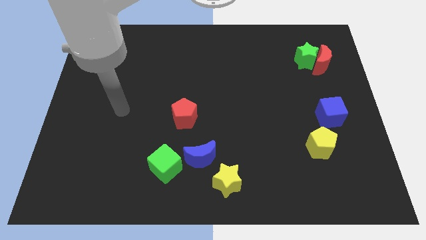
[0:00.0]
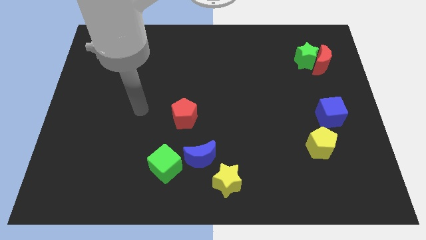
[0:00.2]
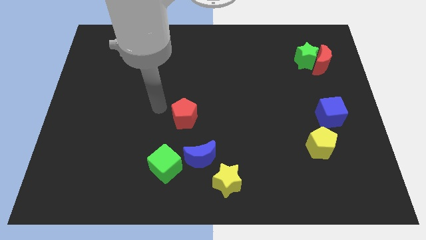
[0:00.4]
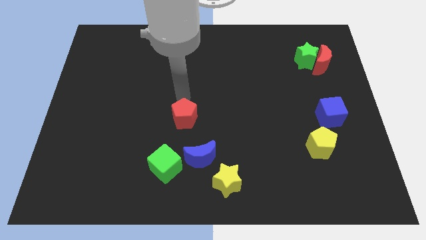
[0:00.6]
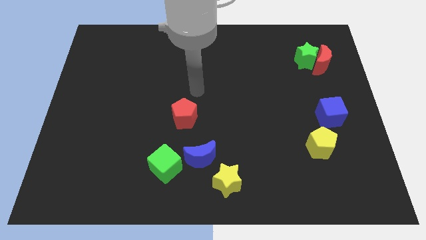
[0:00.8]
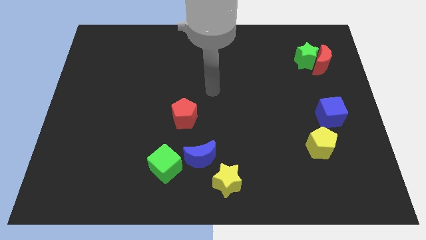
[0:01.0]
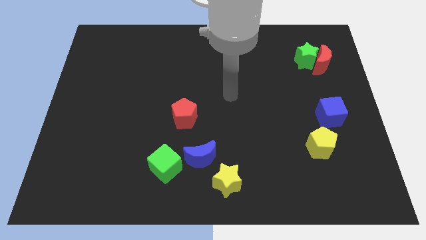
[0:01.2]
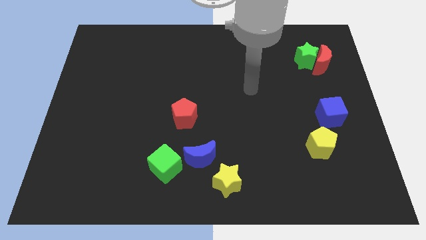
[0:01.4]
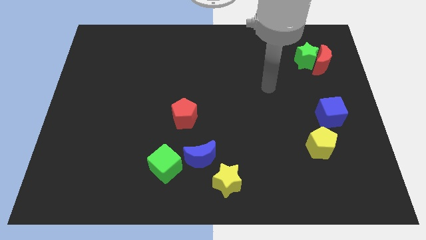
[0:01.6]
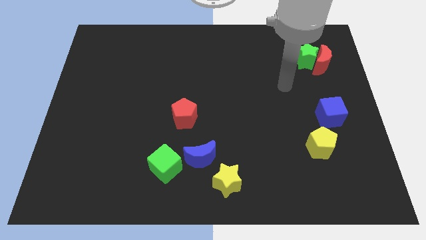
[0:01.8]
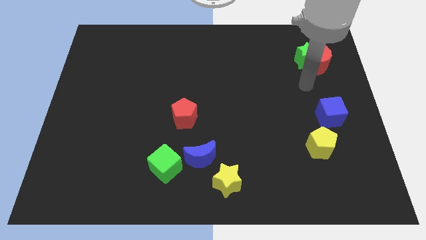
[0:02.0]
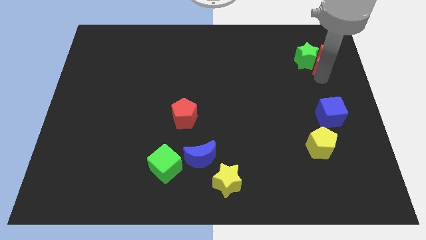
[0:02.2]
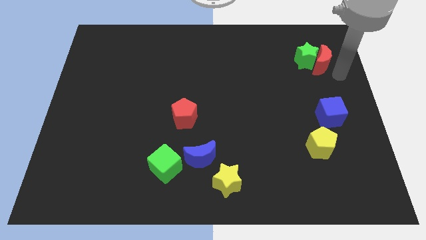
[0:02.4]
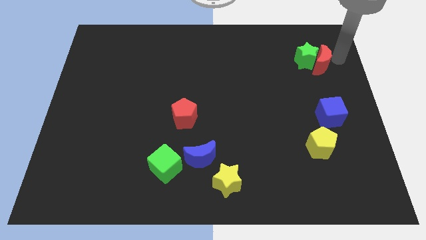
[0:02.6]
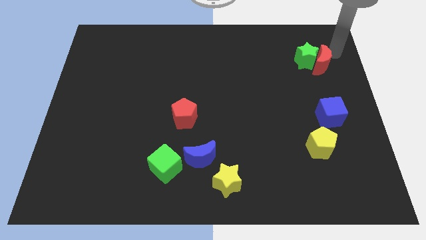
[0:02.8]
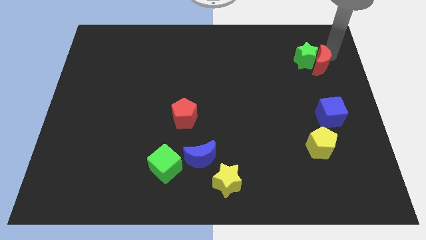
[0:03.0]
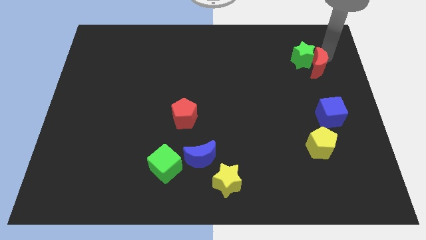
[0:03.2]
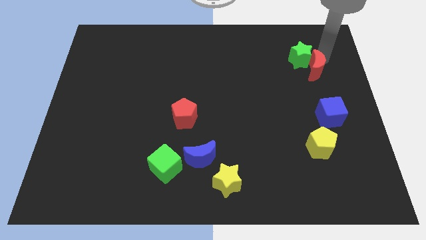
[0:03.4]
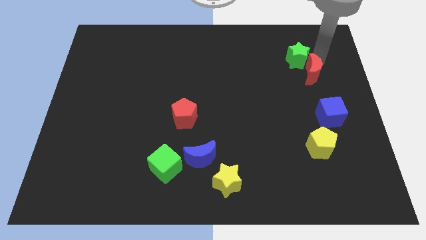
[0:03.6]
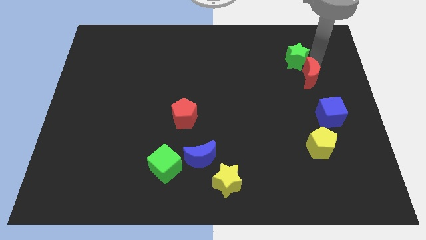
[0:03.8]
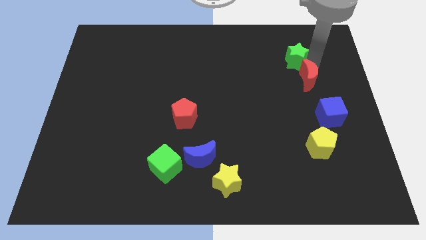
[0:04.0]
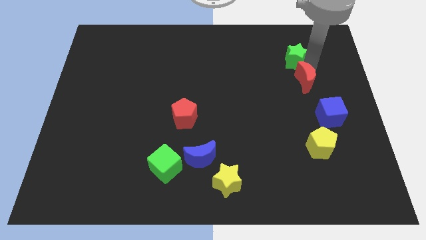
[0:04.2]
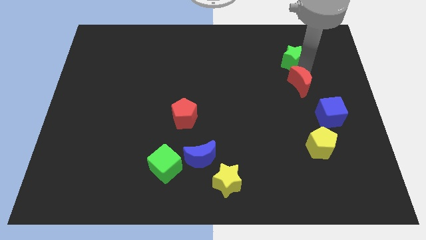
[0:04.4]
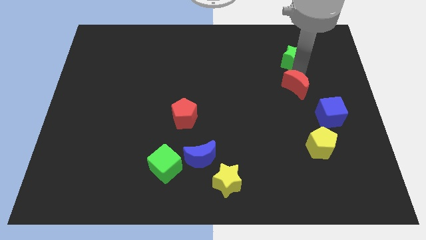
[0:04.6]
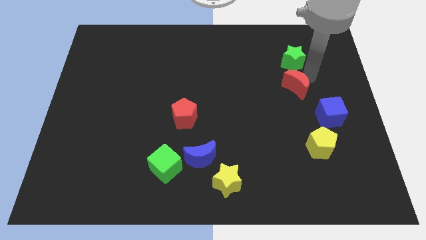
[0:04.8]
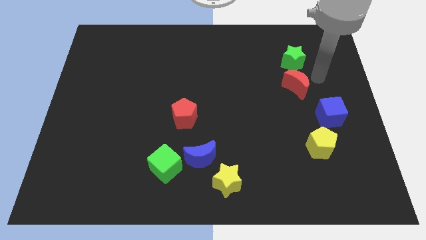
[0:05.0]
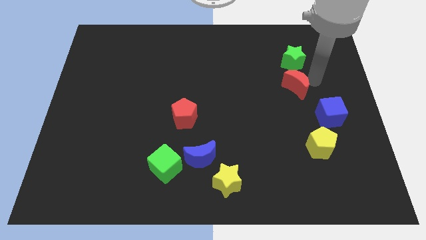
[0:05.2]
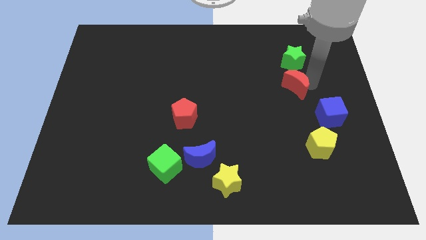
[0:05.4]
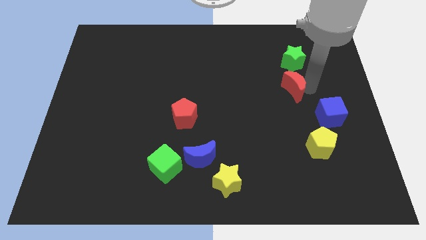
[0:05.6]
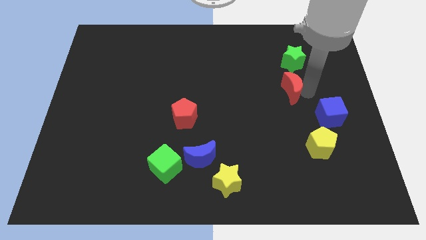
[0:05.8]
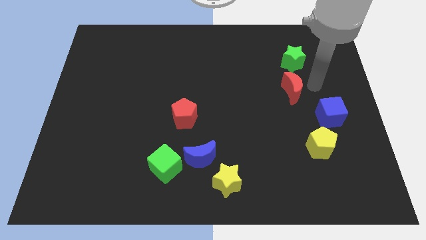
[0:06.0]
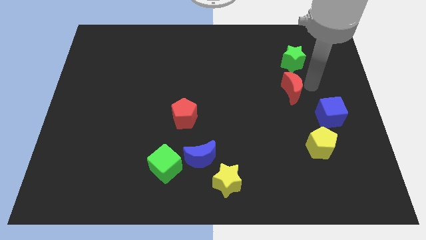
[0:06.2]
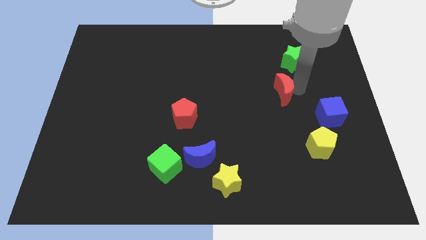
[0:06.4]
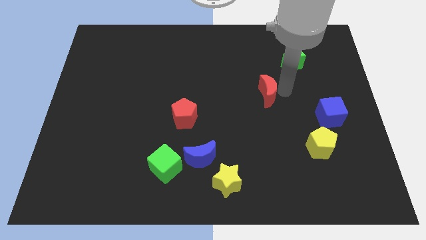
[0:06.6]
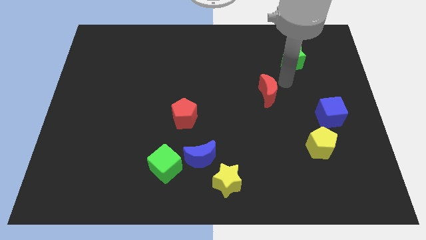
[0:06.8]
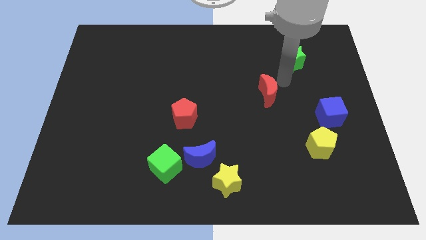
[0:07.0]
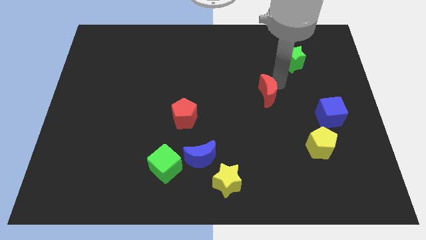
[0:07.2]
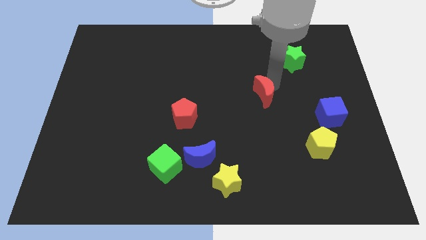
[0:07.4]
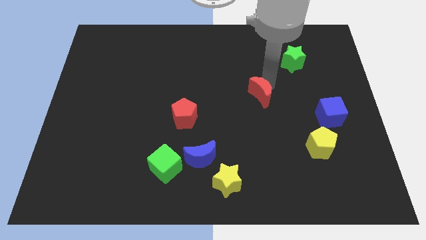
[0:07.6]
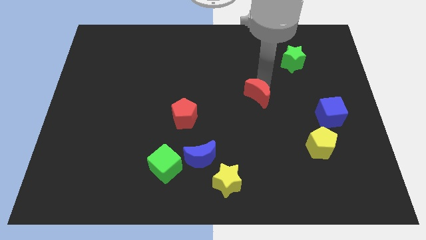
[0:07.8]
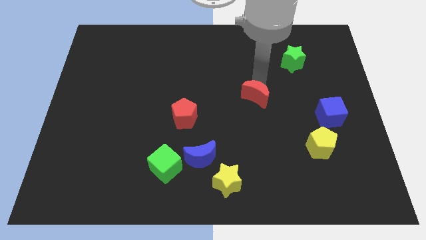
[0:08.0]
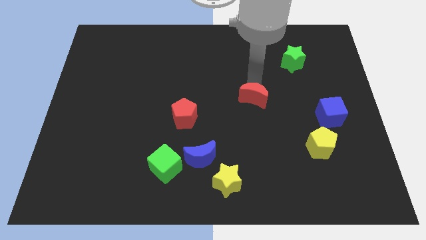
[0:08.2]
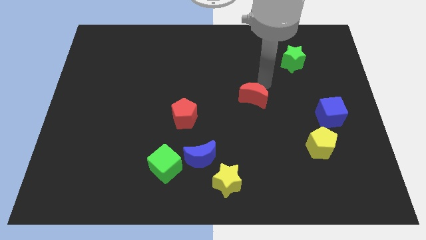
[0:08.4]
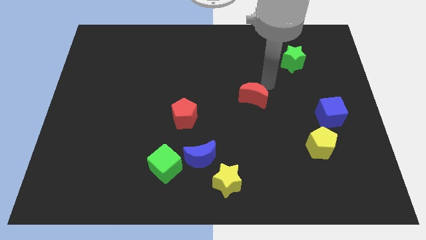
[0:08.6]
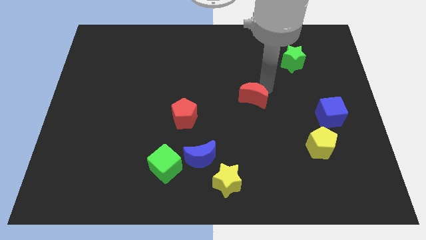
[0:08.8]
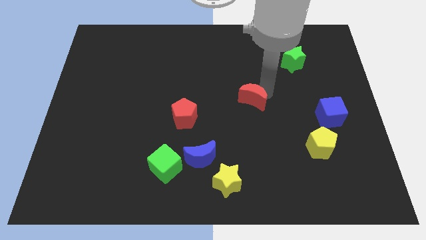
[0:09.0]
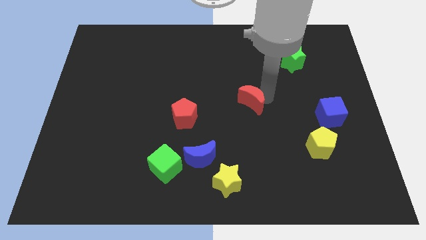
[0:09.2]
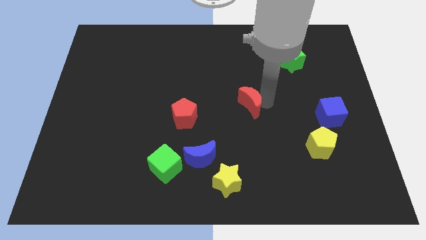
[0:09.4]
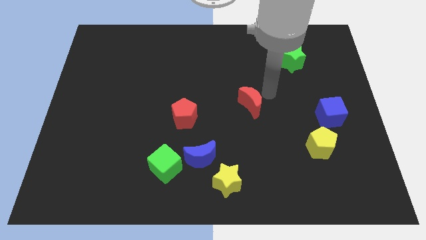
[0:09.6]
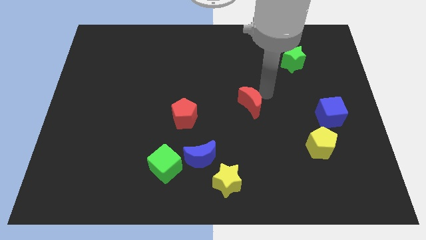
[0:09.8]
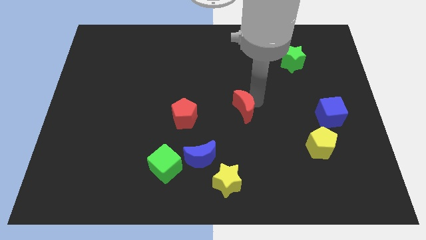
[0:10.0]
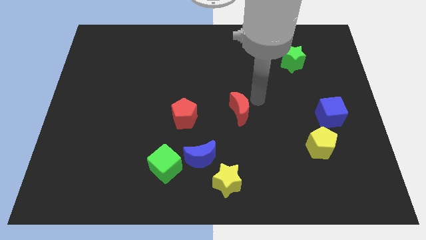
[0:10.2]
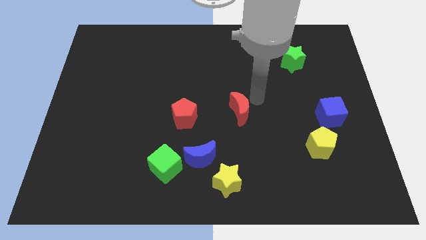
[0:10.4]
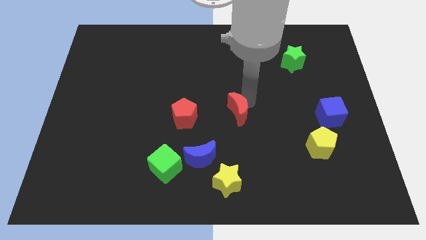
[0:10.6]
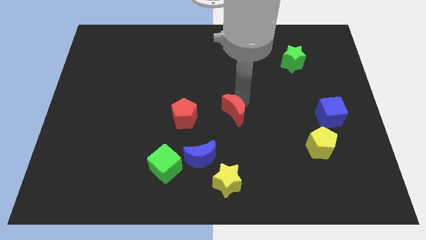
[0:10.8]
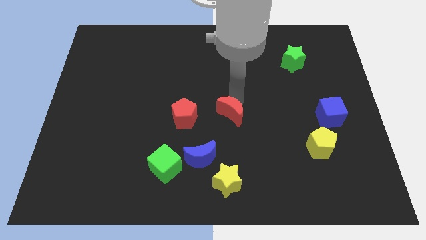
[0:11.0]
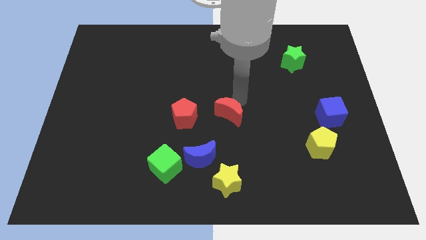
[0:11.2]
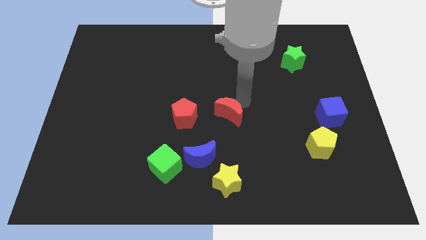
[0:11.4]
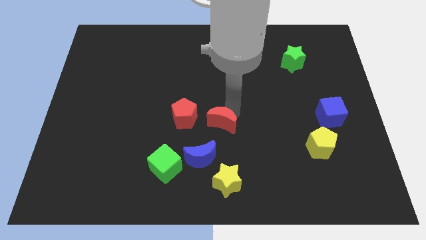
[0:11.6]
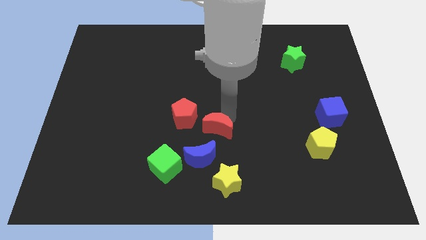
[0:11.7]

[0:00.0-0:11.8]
slide the red moon to the bottom right side of the red pentagon

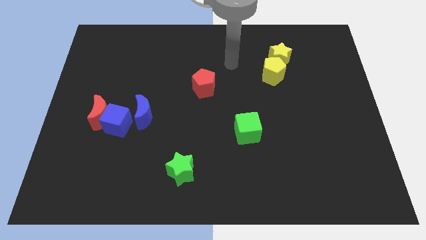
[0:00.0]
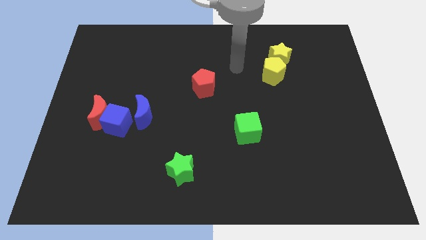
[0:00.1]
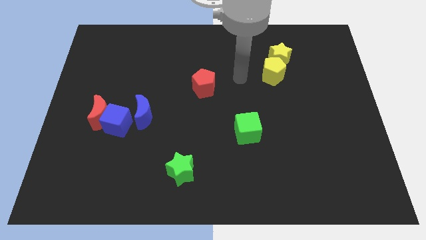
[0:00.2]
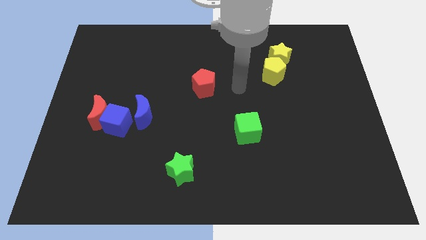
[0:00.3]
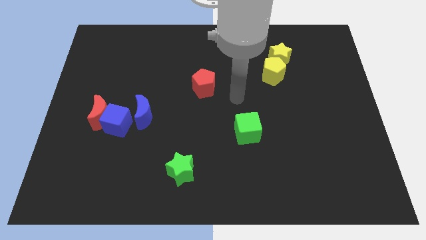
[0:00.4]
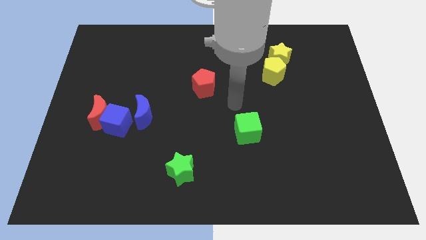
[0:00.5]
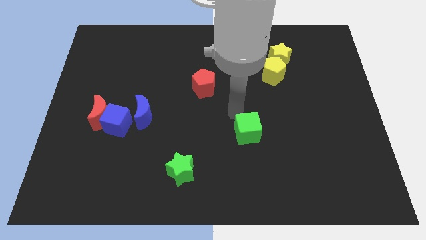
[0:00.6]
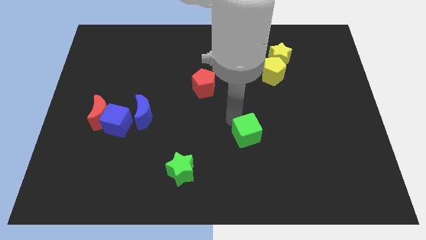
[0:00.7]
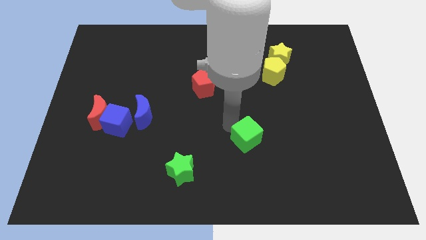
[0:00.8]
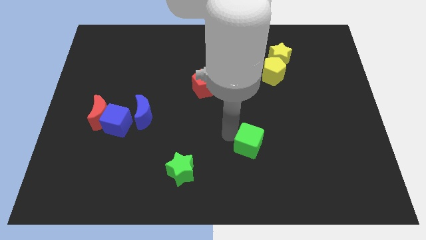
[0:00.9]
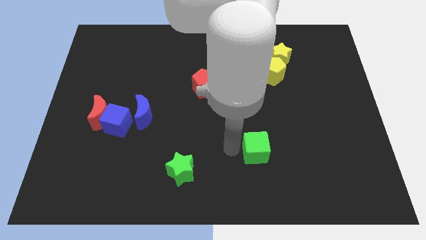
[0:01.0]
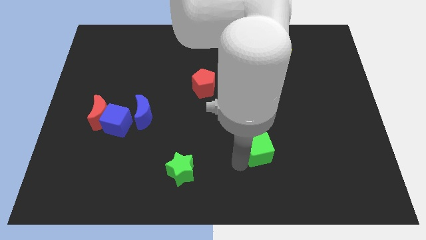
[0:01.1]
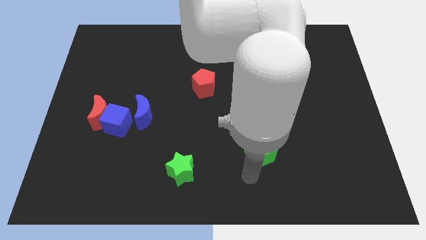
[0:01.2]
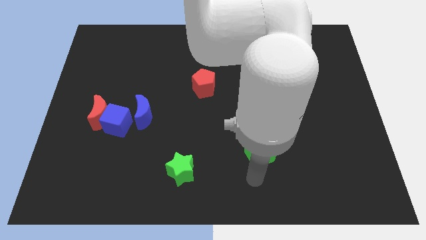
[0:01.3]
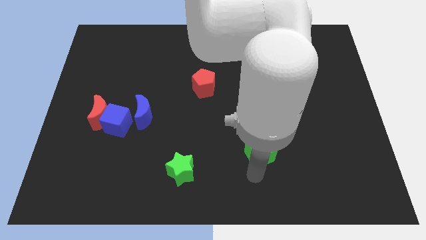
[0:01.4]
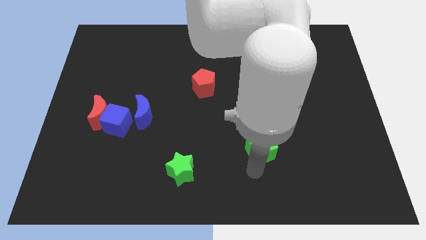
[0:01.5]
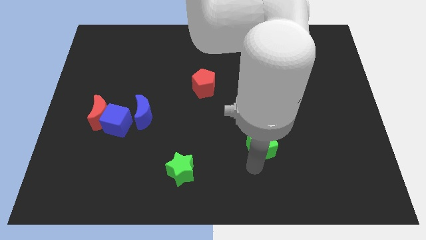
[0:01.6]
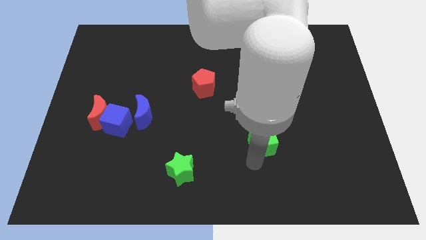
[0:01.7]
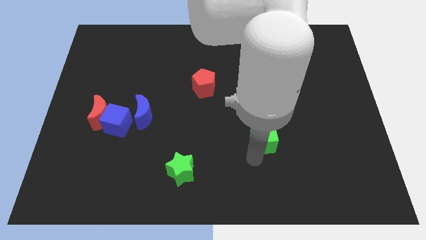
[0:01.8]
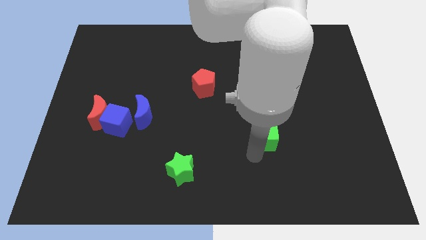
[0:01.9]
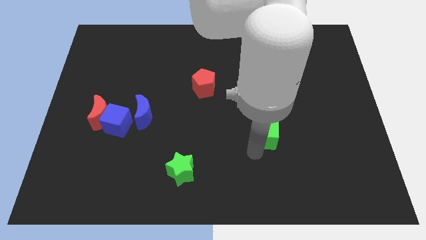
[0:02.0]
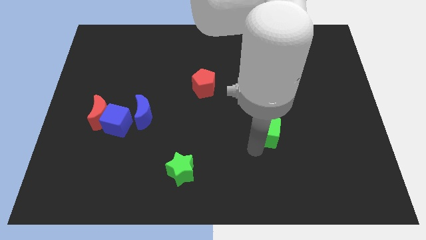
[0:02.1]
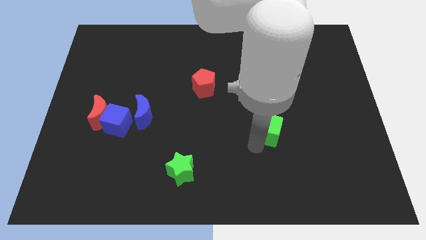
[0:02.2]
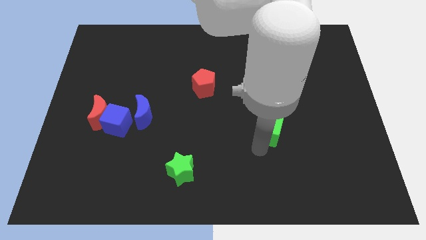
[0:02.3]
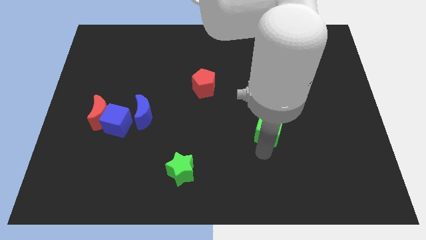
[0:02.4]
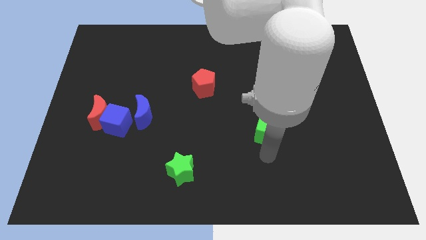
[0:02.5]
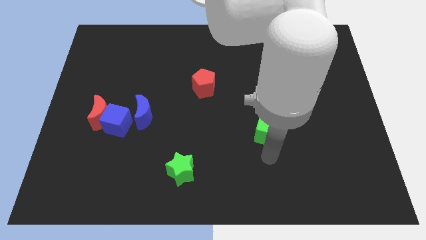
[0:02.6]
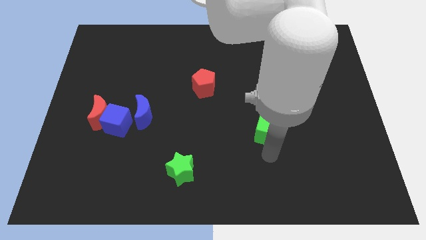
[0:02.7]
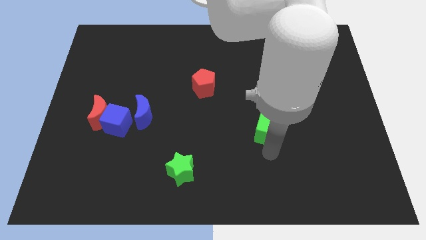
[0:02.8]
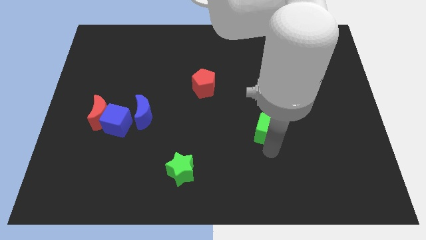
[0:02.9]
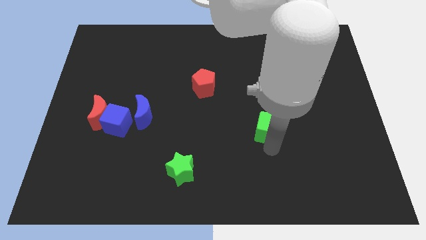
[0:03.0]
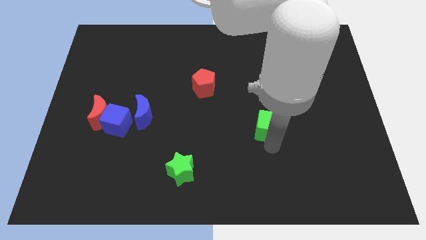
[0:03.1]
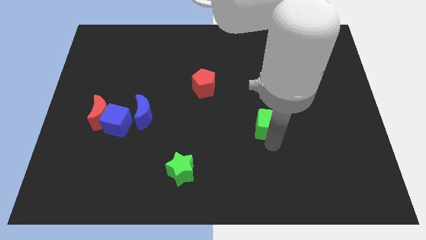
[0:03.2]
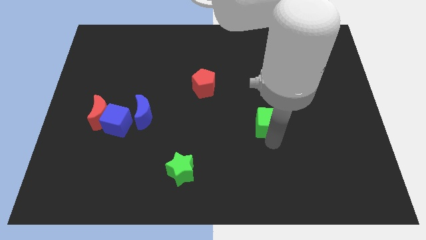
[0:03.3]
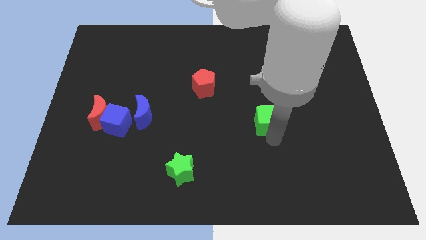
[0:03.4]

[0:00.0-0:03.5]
put the green cube to the bottom of the yellow pentagon
